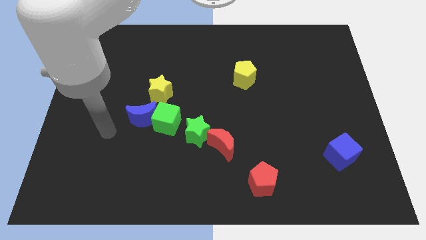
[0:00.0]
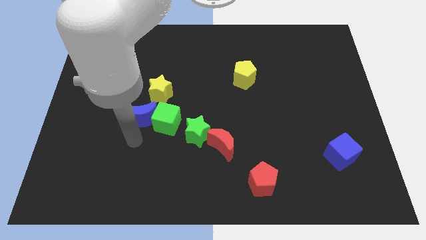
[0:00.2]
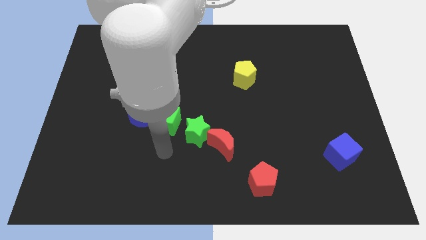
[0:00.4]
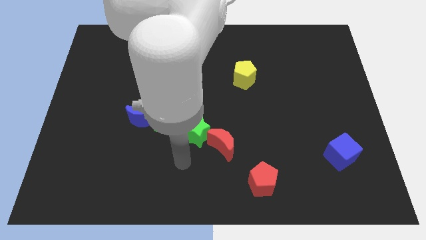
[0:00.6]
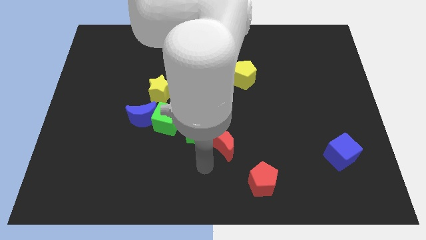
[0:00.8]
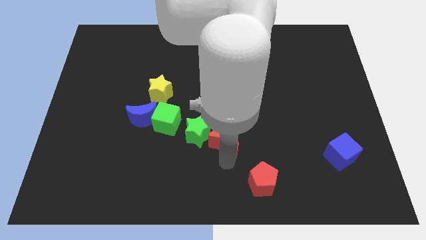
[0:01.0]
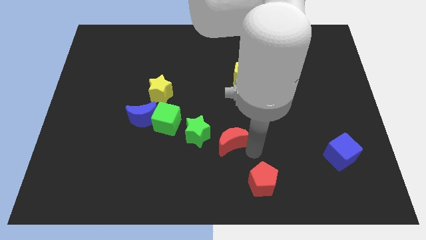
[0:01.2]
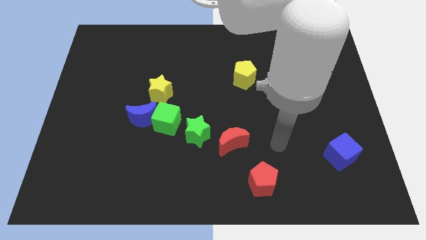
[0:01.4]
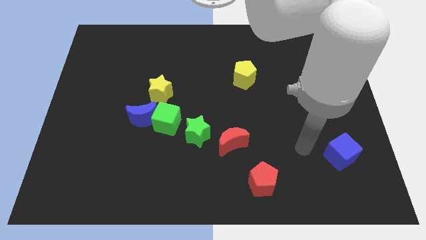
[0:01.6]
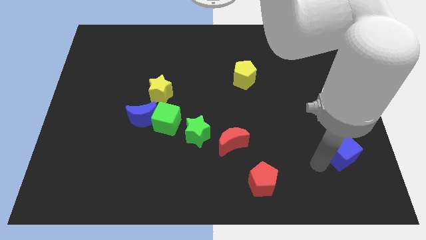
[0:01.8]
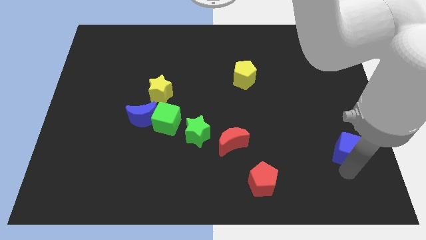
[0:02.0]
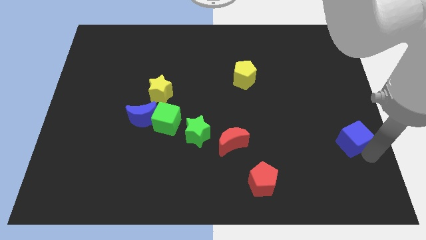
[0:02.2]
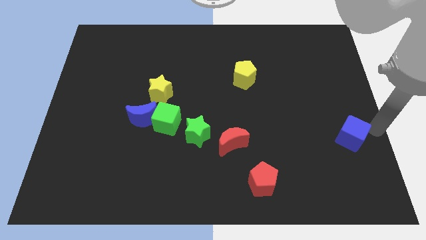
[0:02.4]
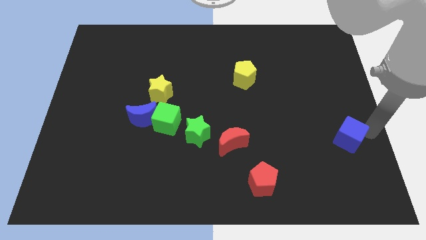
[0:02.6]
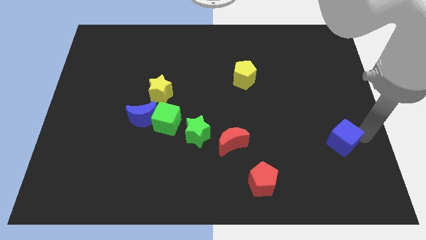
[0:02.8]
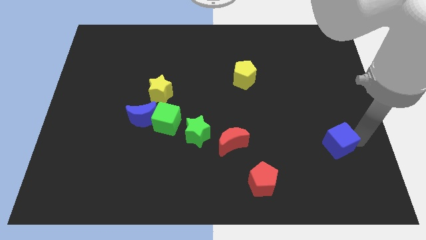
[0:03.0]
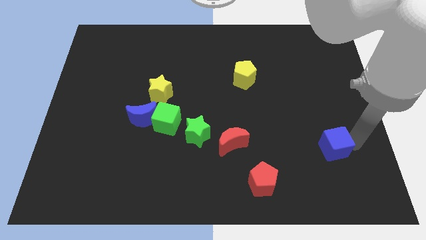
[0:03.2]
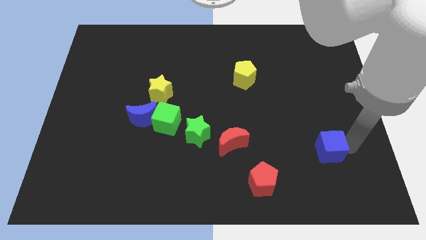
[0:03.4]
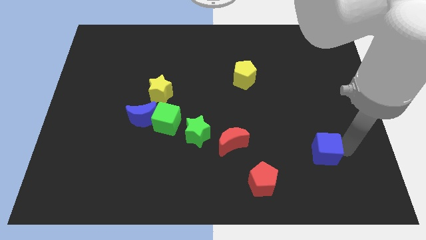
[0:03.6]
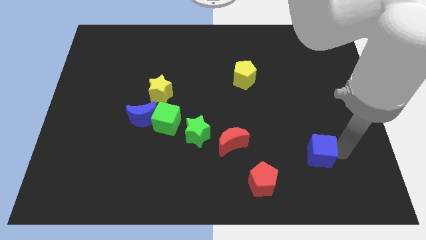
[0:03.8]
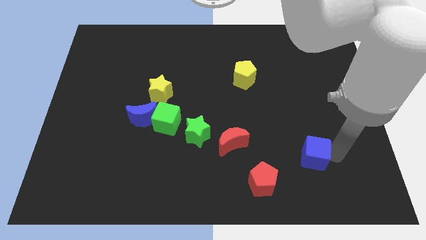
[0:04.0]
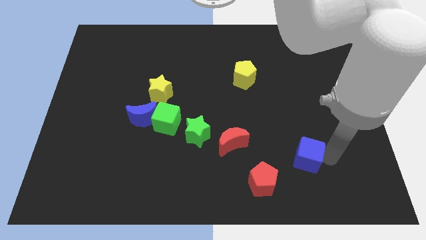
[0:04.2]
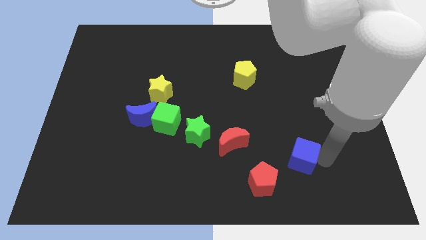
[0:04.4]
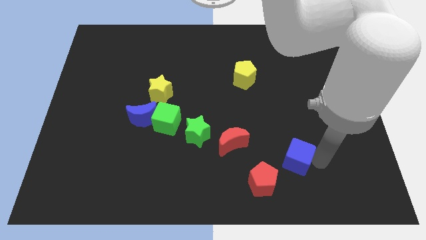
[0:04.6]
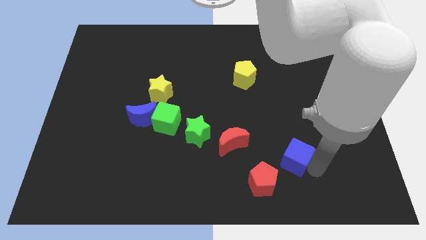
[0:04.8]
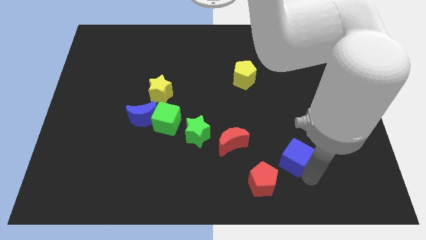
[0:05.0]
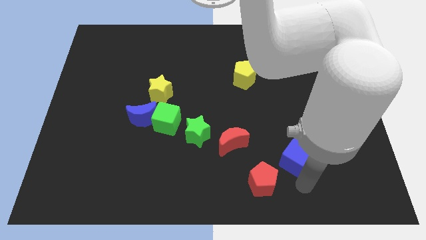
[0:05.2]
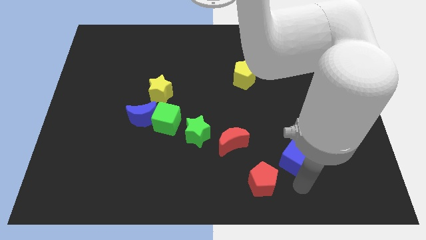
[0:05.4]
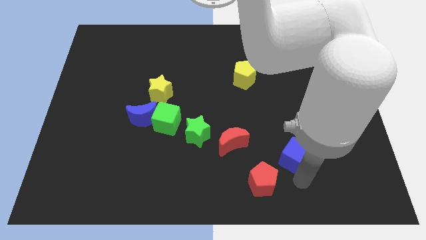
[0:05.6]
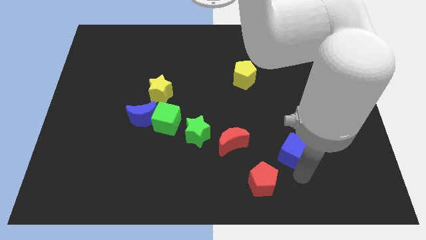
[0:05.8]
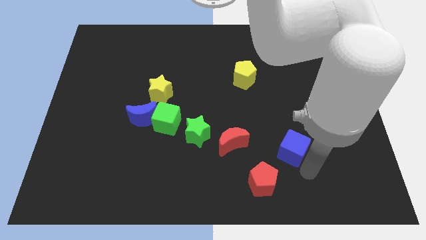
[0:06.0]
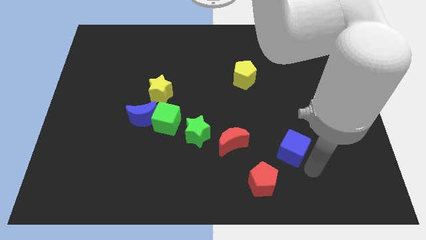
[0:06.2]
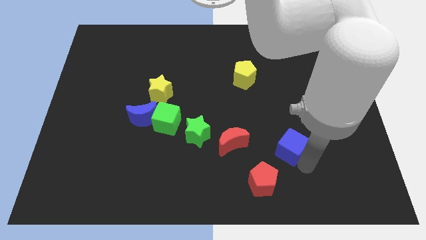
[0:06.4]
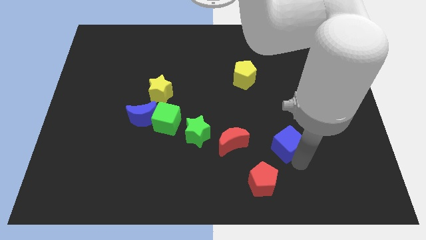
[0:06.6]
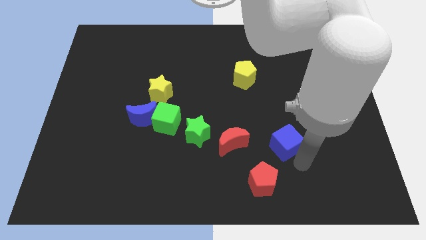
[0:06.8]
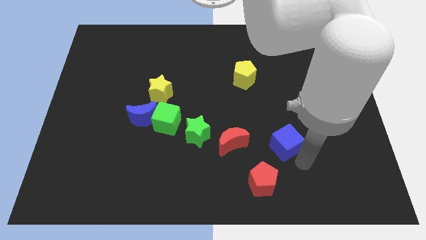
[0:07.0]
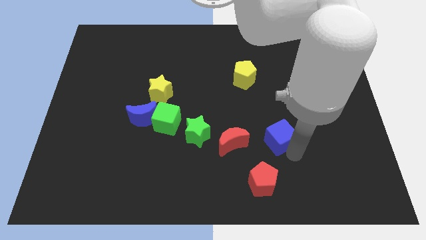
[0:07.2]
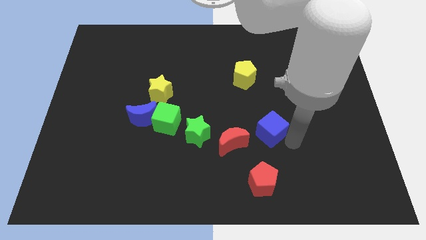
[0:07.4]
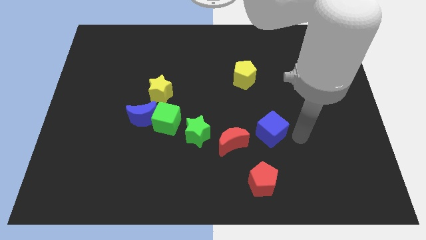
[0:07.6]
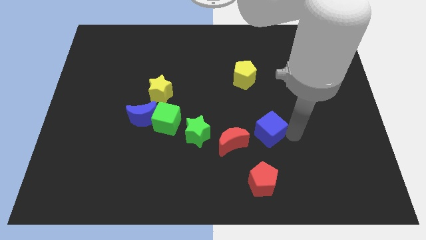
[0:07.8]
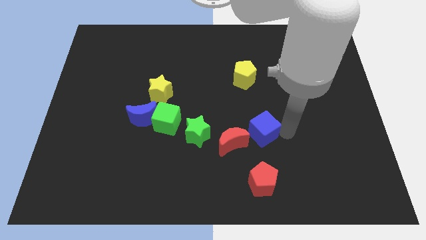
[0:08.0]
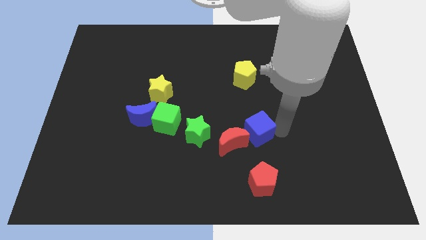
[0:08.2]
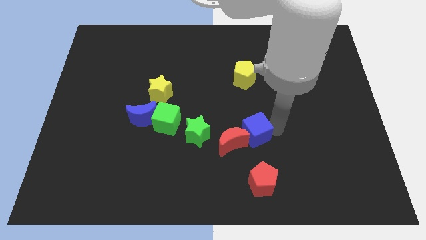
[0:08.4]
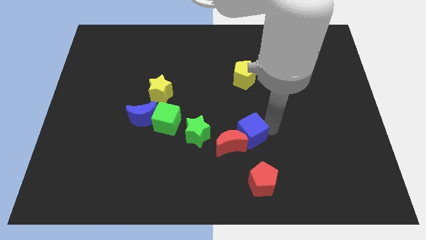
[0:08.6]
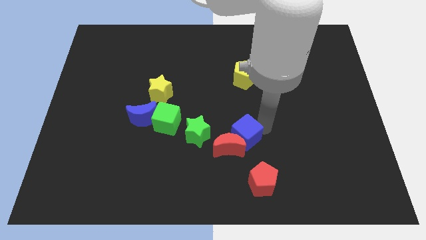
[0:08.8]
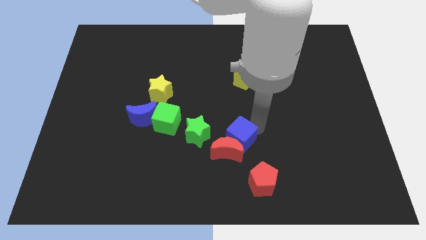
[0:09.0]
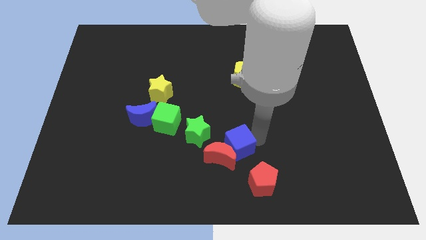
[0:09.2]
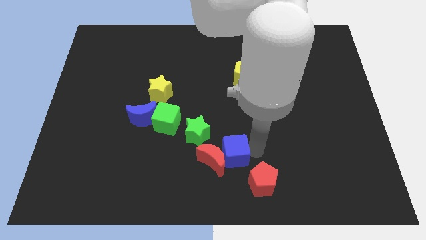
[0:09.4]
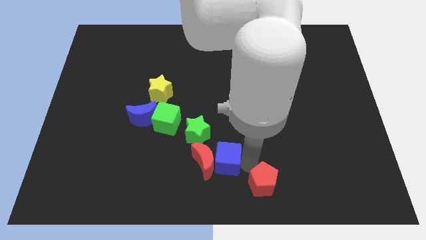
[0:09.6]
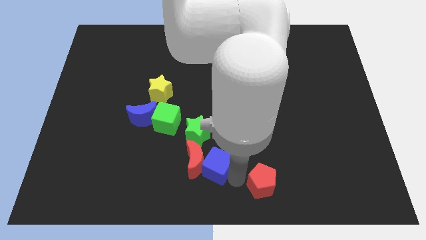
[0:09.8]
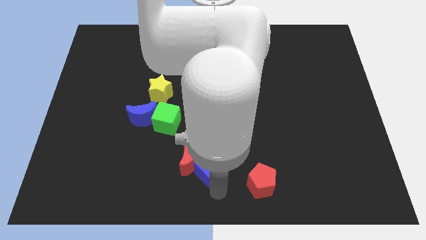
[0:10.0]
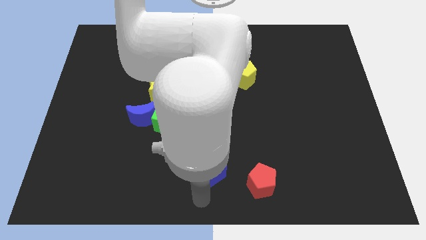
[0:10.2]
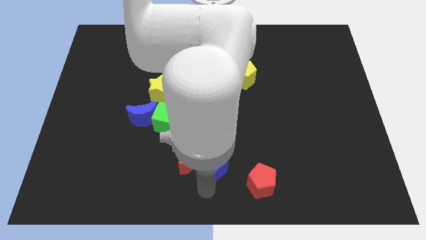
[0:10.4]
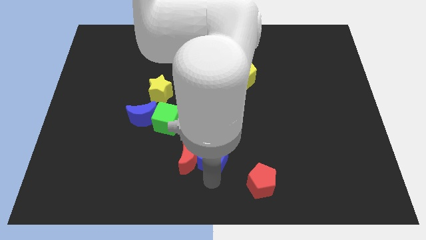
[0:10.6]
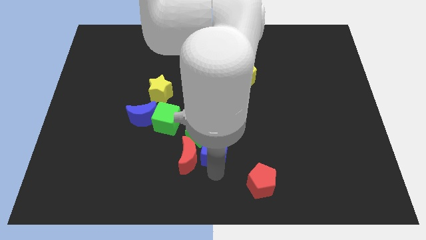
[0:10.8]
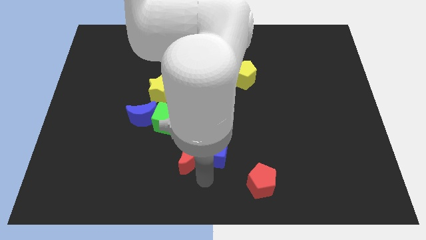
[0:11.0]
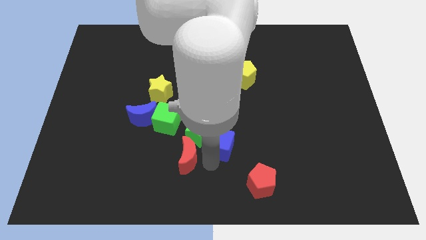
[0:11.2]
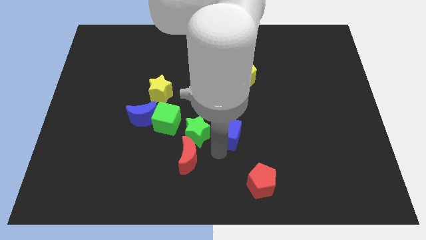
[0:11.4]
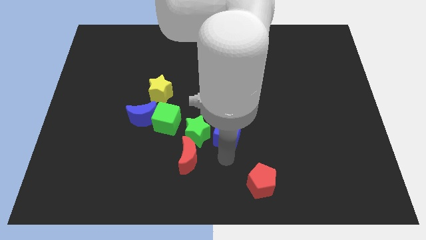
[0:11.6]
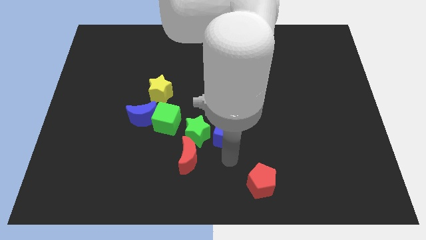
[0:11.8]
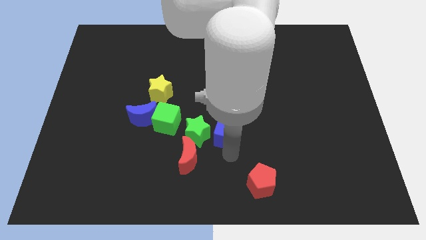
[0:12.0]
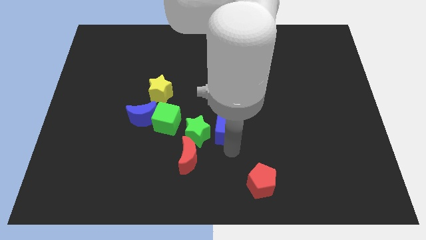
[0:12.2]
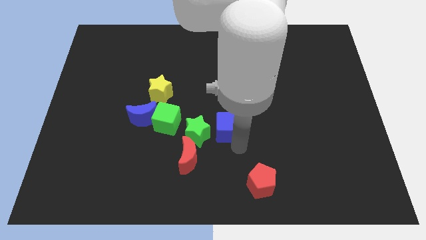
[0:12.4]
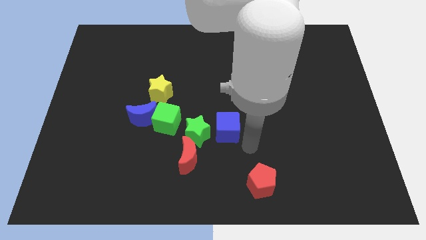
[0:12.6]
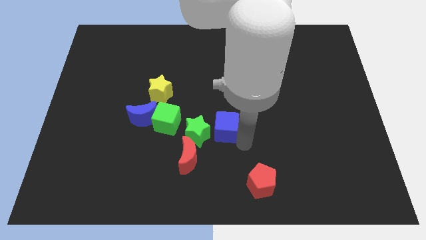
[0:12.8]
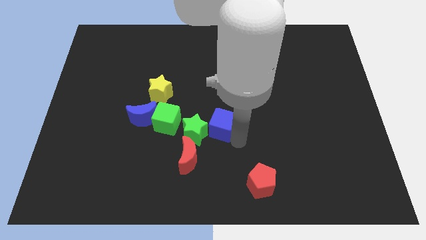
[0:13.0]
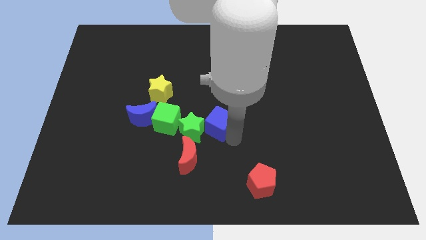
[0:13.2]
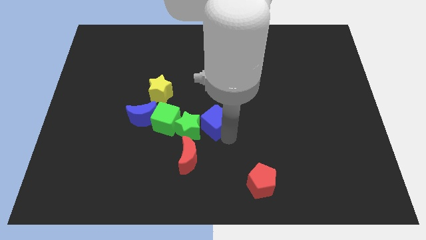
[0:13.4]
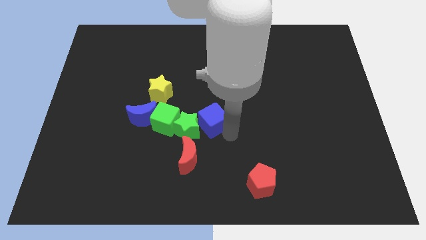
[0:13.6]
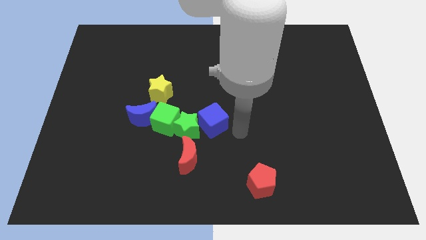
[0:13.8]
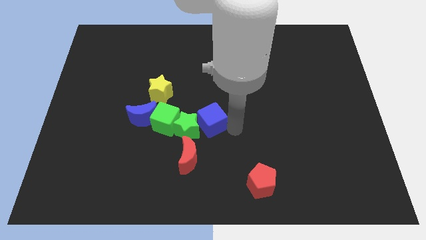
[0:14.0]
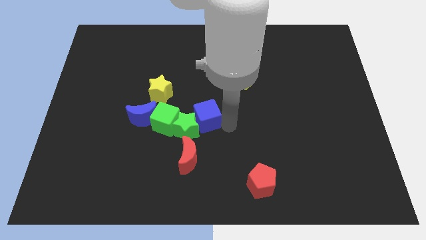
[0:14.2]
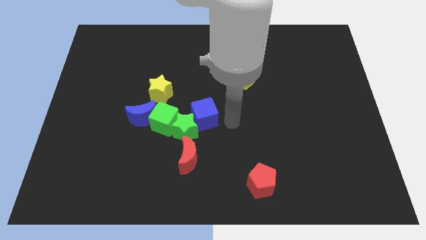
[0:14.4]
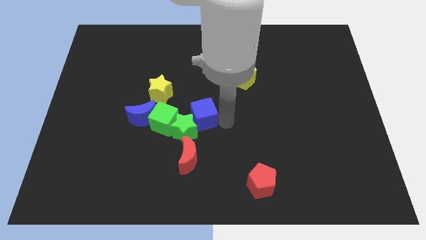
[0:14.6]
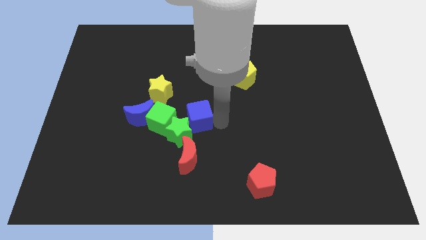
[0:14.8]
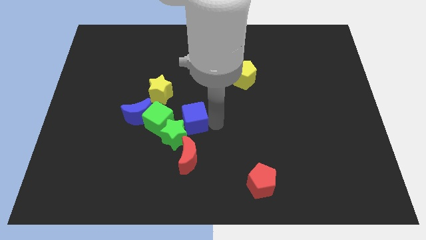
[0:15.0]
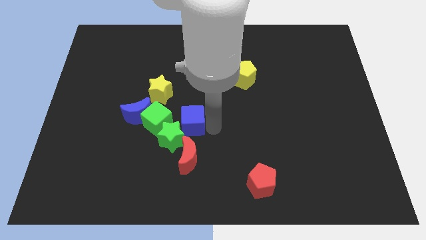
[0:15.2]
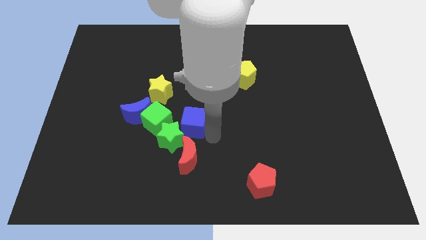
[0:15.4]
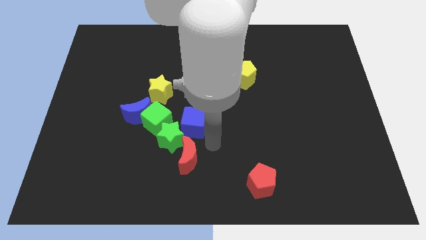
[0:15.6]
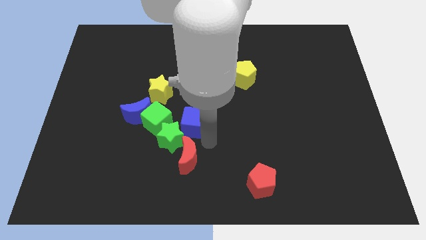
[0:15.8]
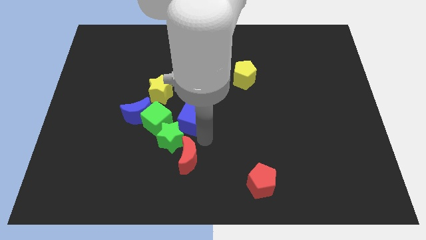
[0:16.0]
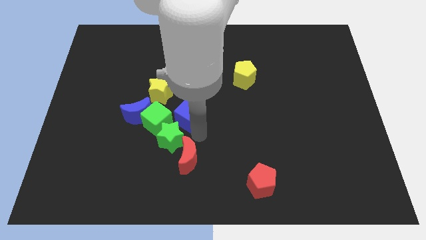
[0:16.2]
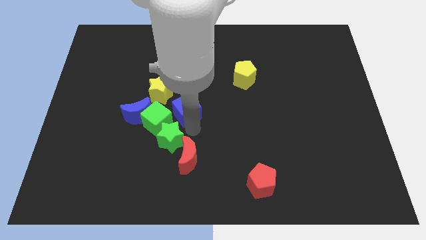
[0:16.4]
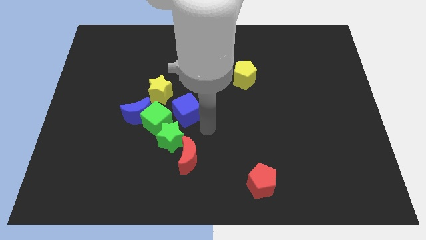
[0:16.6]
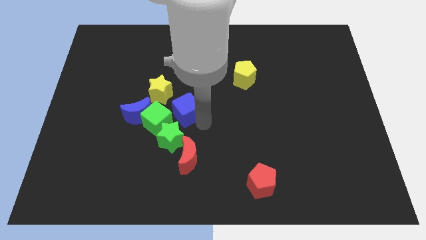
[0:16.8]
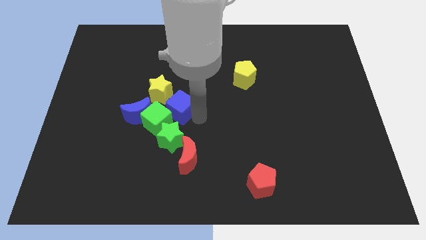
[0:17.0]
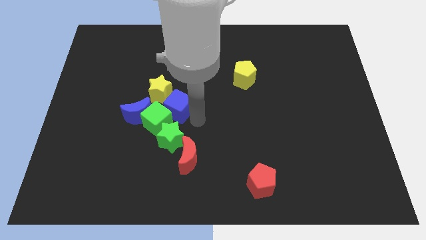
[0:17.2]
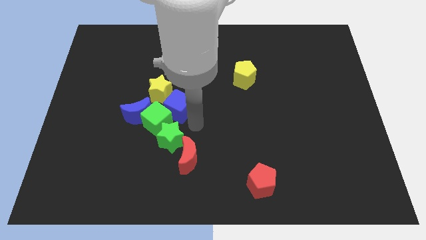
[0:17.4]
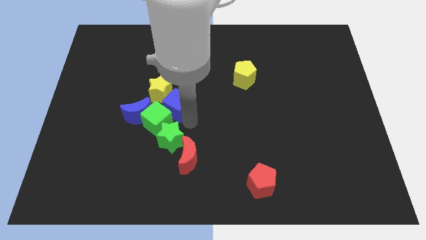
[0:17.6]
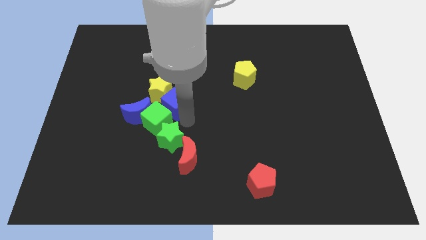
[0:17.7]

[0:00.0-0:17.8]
push the blue cube next to the yellow star
